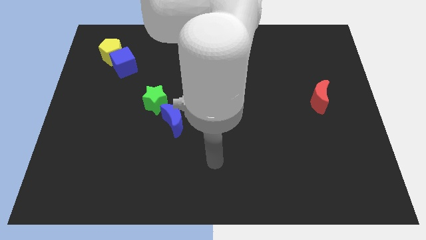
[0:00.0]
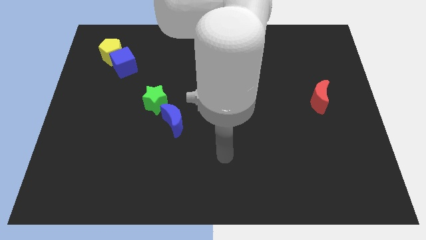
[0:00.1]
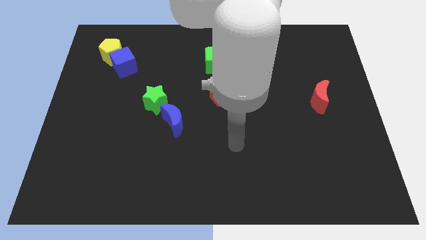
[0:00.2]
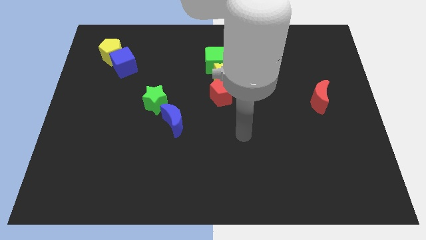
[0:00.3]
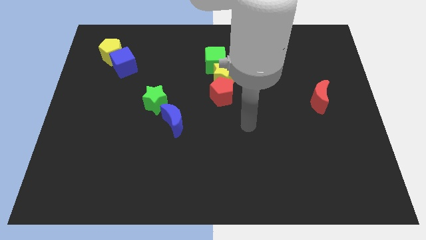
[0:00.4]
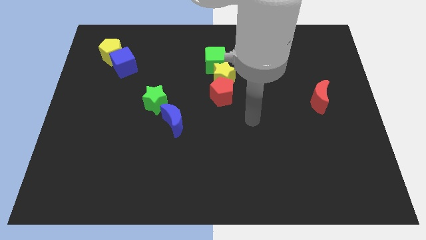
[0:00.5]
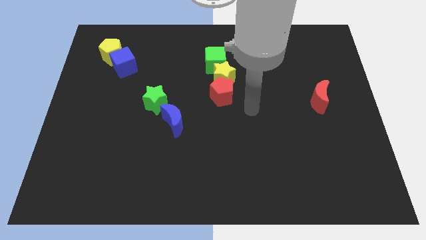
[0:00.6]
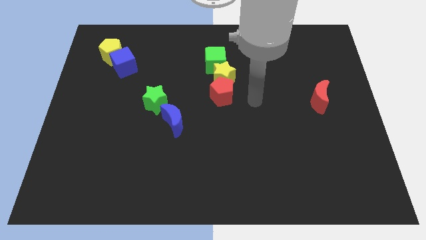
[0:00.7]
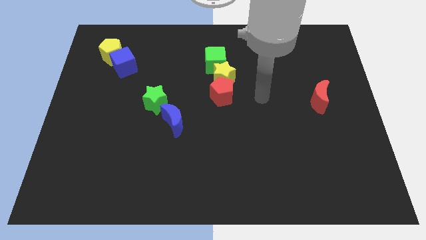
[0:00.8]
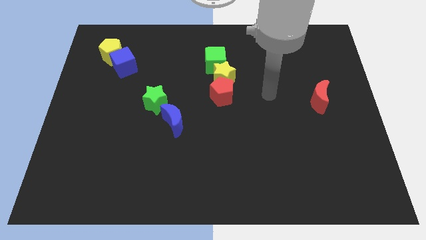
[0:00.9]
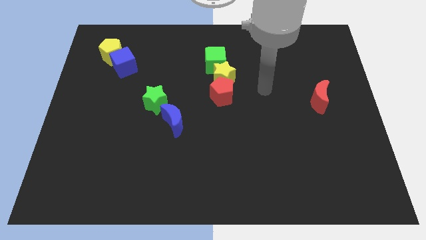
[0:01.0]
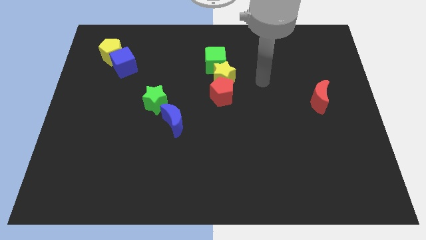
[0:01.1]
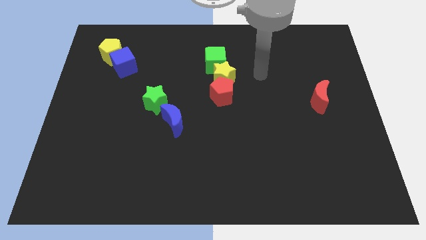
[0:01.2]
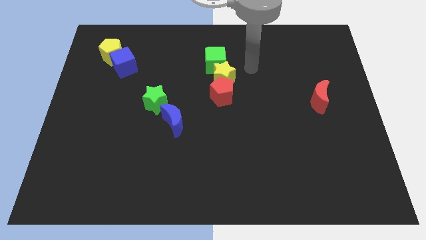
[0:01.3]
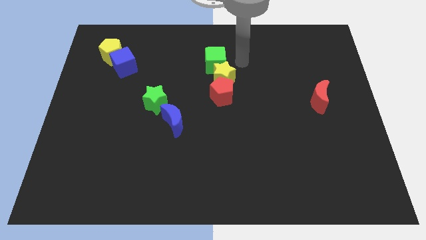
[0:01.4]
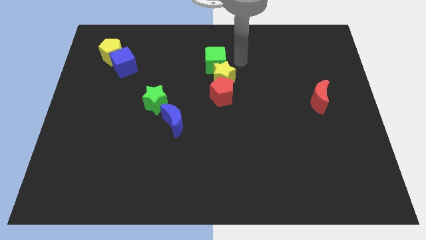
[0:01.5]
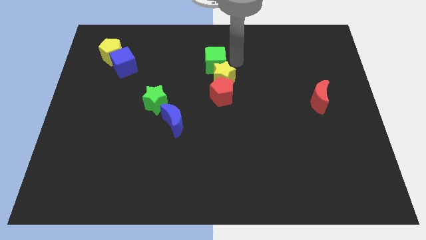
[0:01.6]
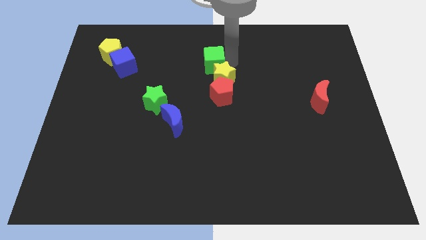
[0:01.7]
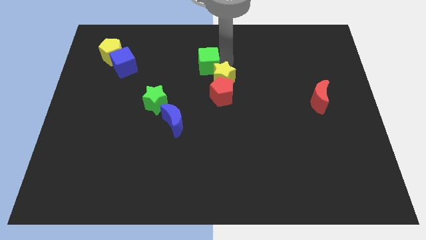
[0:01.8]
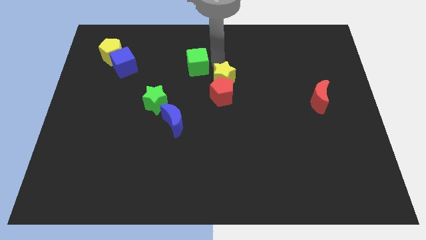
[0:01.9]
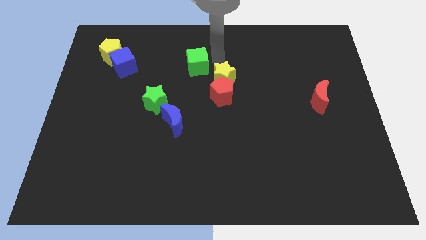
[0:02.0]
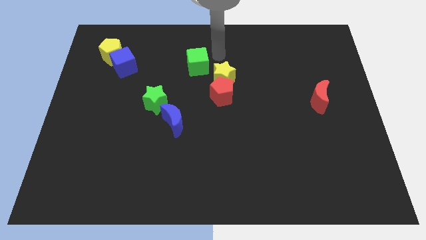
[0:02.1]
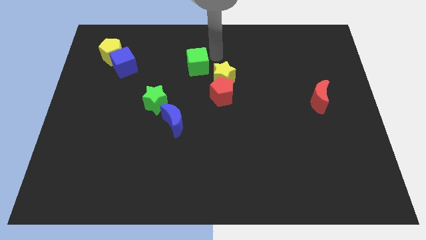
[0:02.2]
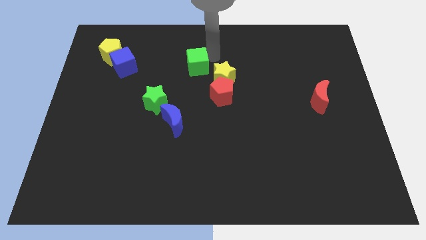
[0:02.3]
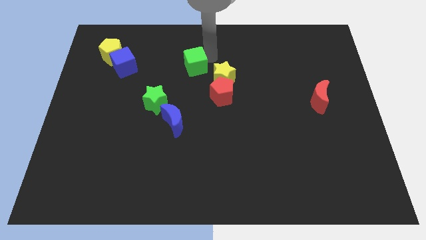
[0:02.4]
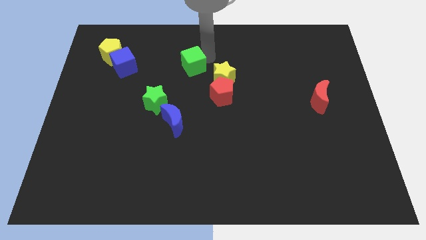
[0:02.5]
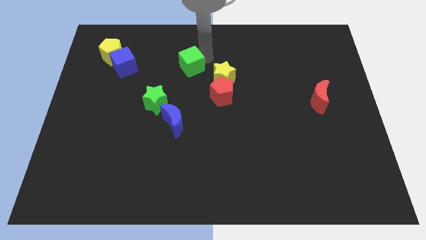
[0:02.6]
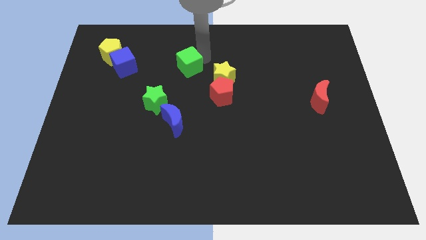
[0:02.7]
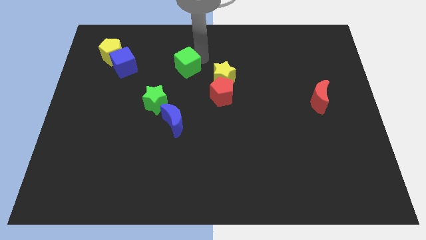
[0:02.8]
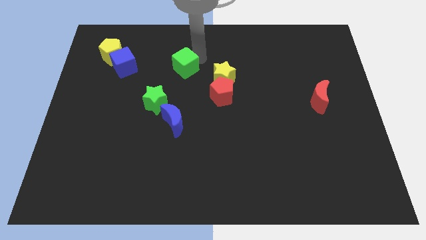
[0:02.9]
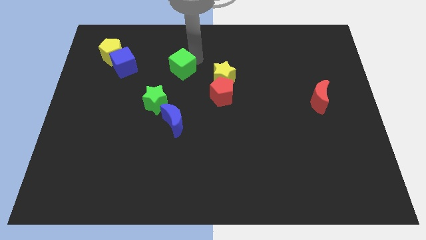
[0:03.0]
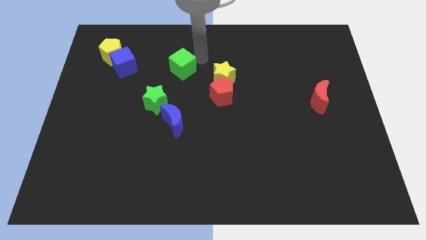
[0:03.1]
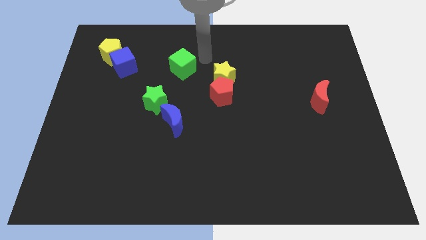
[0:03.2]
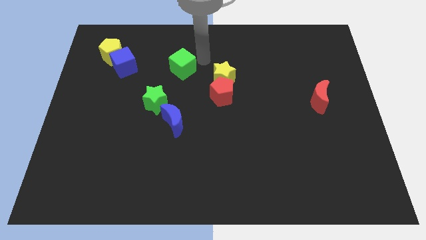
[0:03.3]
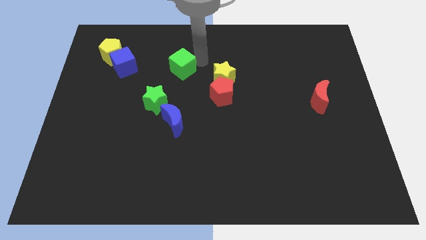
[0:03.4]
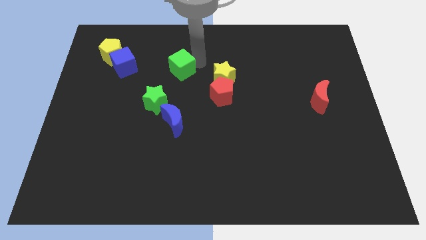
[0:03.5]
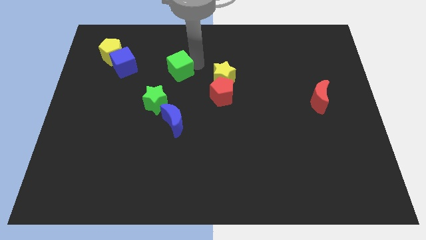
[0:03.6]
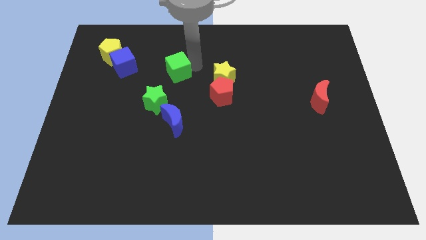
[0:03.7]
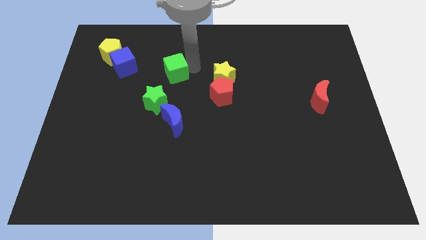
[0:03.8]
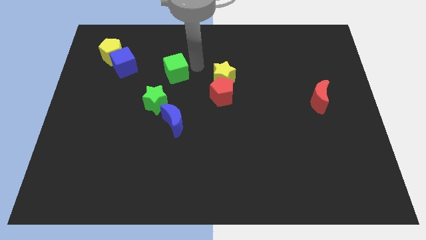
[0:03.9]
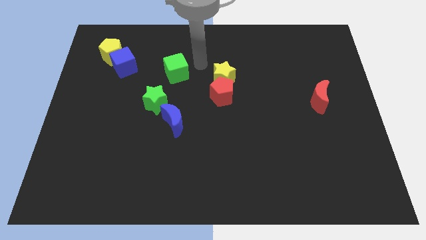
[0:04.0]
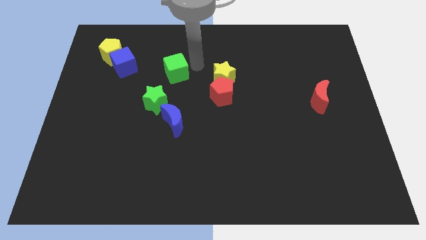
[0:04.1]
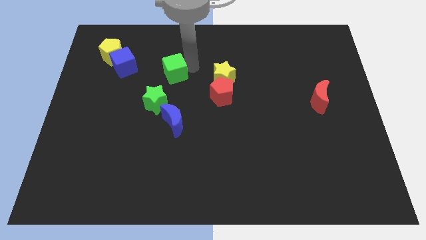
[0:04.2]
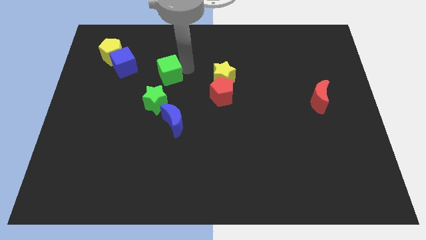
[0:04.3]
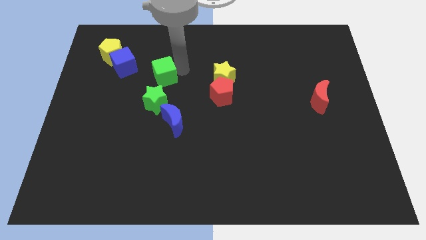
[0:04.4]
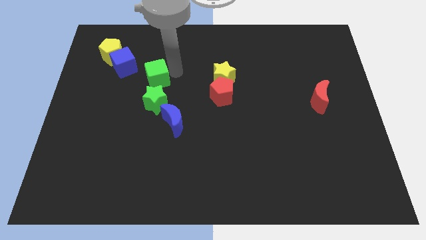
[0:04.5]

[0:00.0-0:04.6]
move the green cube diagonally down and to the right of the blue cube

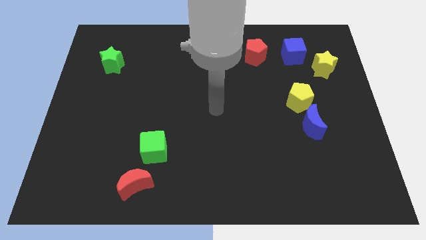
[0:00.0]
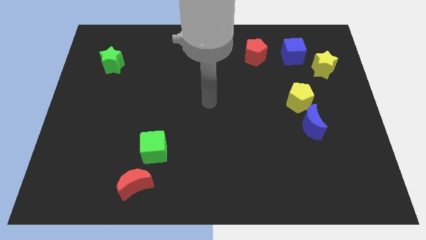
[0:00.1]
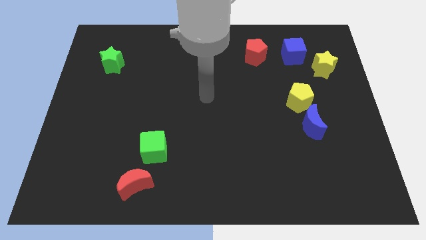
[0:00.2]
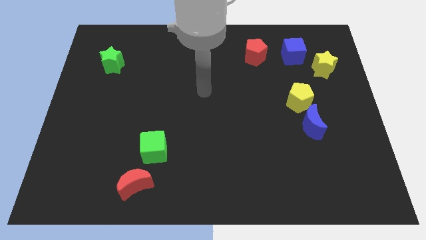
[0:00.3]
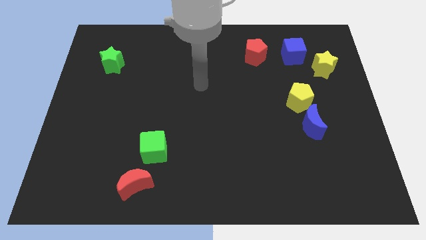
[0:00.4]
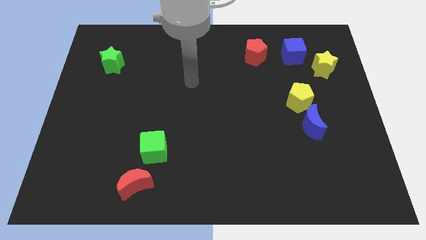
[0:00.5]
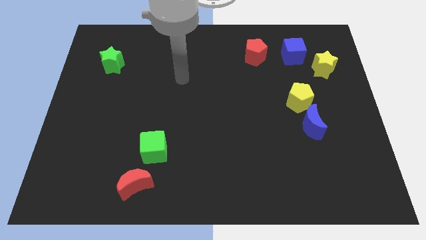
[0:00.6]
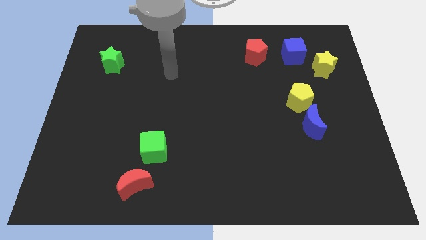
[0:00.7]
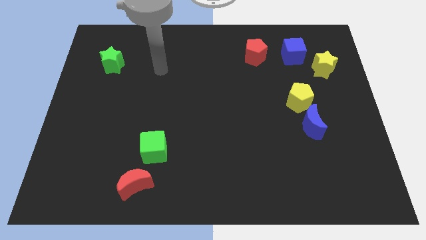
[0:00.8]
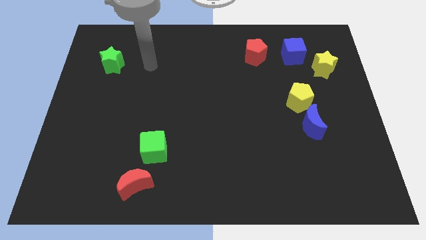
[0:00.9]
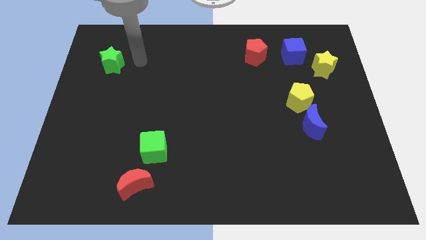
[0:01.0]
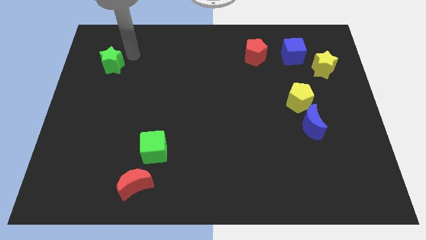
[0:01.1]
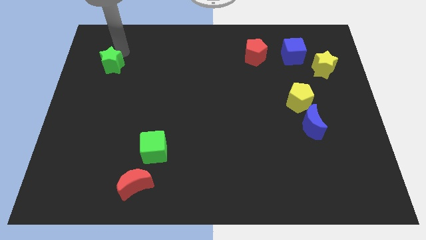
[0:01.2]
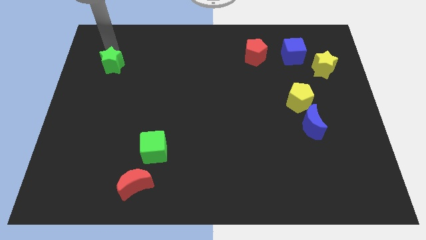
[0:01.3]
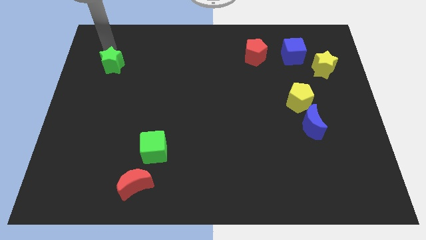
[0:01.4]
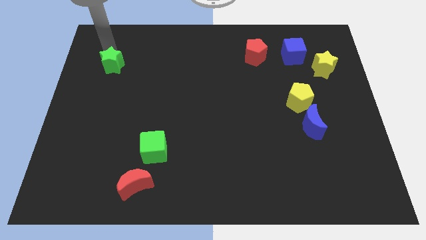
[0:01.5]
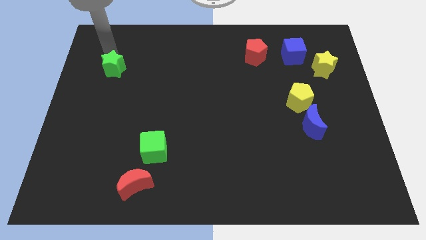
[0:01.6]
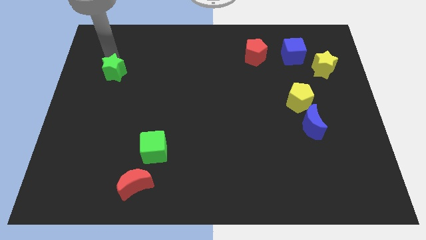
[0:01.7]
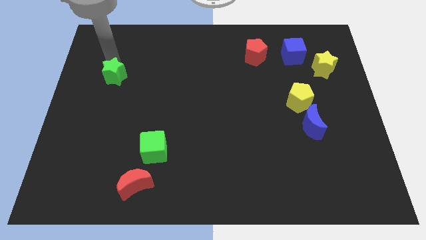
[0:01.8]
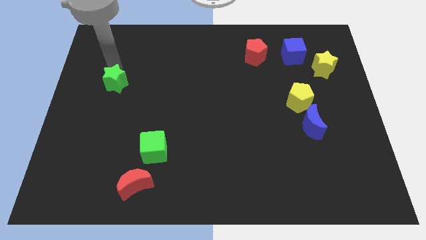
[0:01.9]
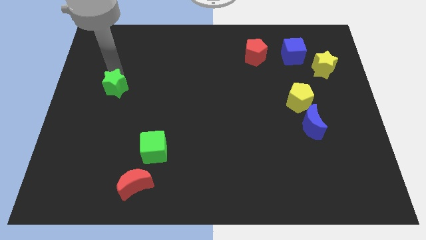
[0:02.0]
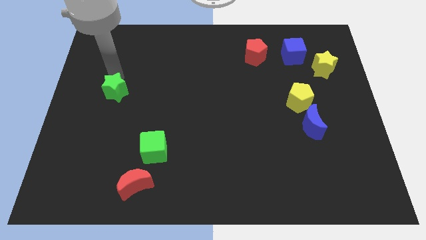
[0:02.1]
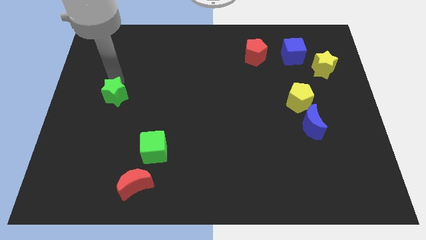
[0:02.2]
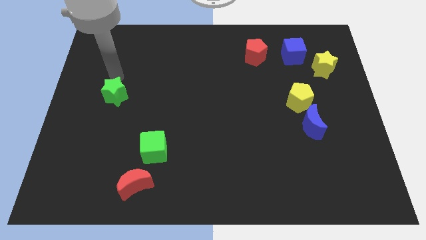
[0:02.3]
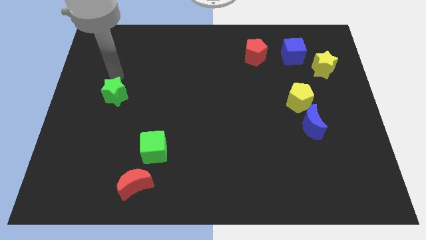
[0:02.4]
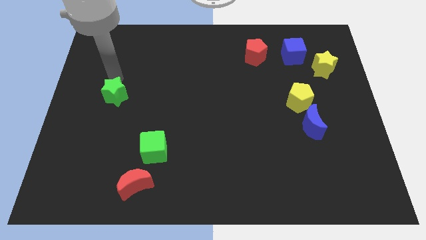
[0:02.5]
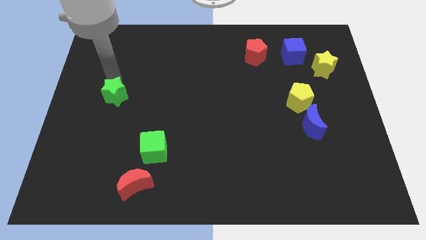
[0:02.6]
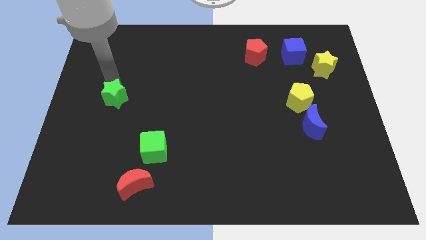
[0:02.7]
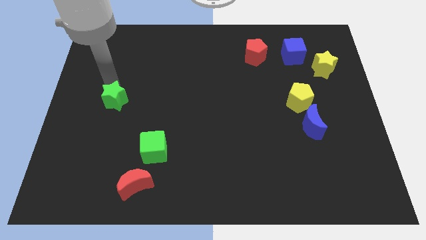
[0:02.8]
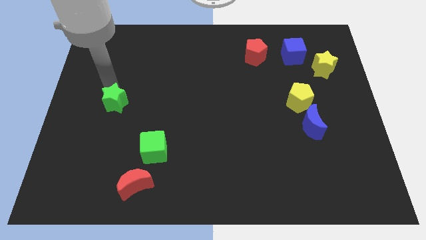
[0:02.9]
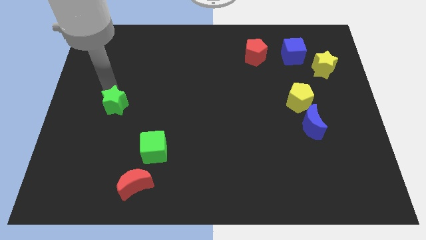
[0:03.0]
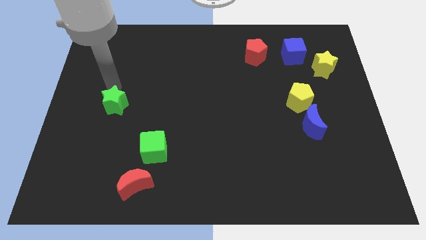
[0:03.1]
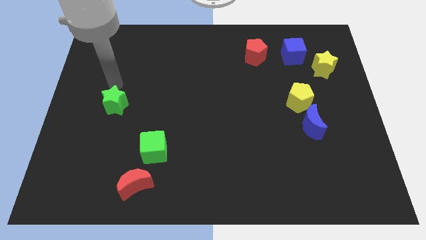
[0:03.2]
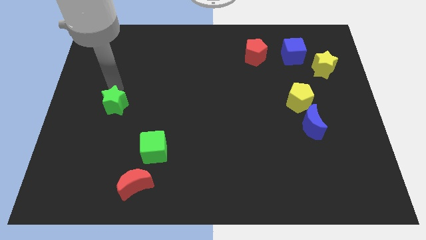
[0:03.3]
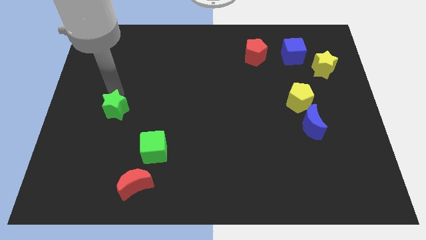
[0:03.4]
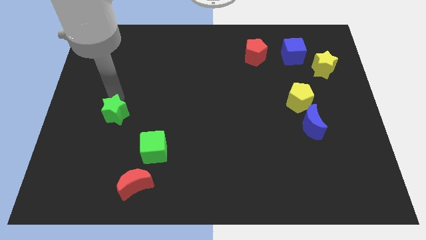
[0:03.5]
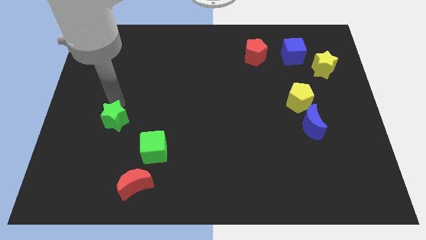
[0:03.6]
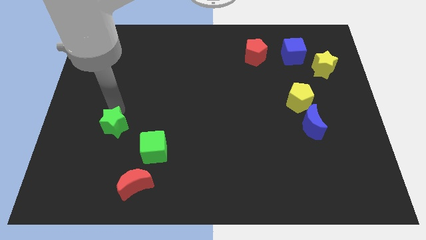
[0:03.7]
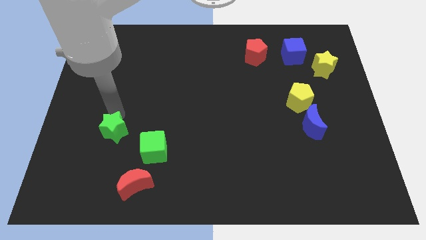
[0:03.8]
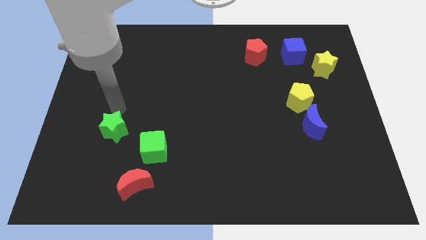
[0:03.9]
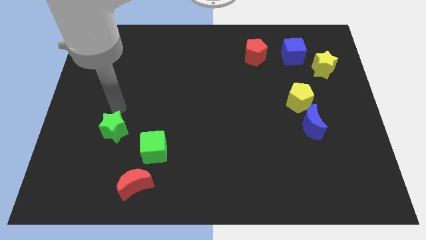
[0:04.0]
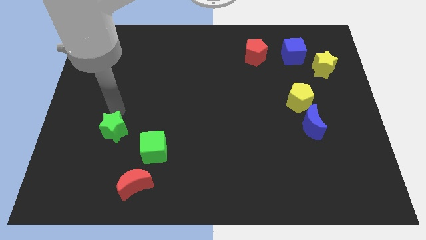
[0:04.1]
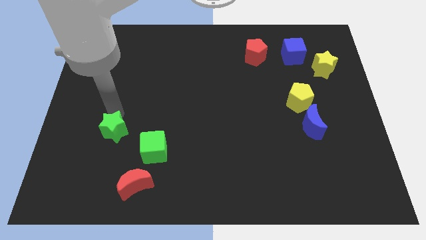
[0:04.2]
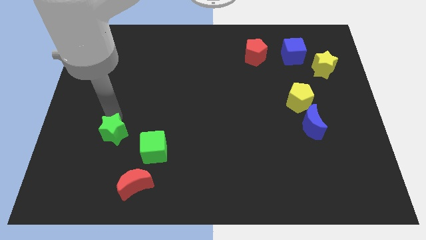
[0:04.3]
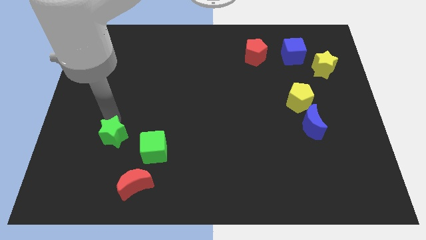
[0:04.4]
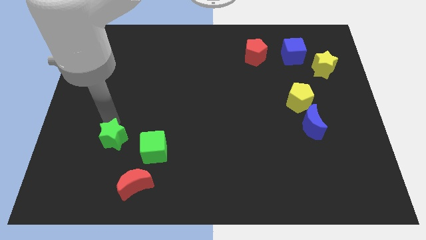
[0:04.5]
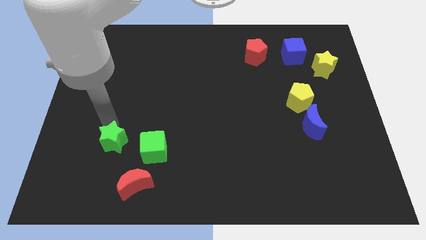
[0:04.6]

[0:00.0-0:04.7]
put the green star diagonally up and to the left of the red moon
